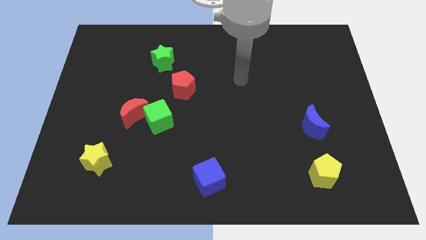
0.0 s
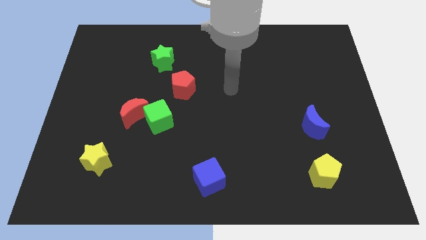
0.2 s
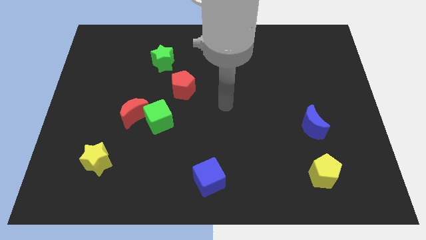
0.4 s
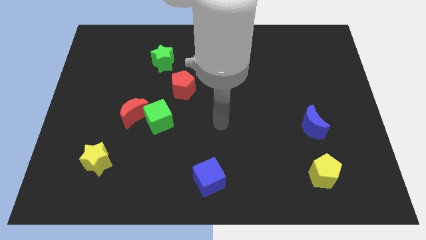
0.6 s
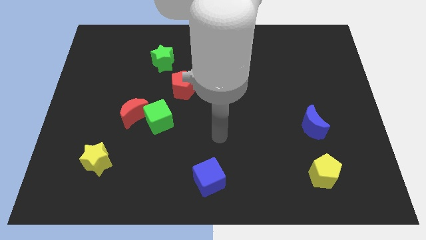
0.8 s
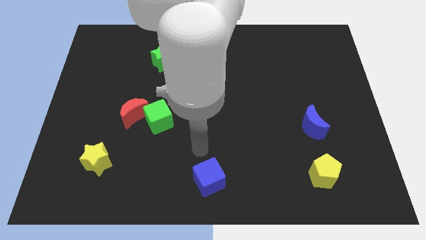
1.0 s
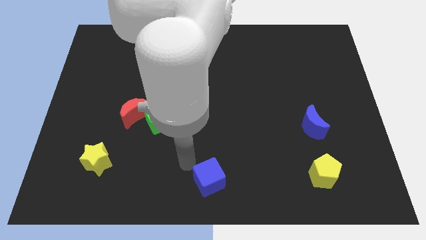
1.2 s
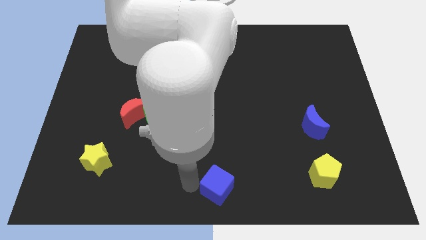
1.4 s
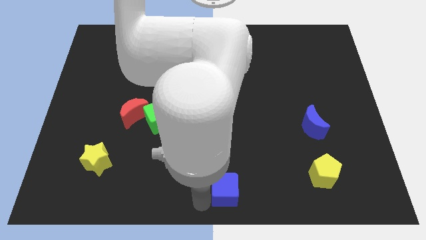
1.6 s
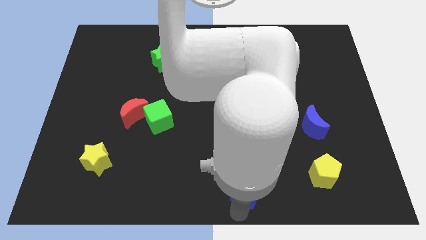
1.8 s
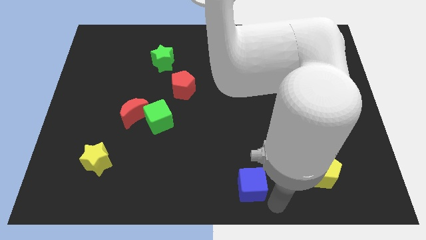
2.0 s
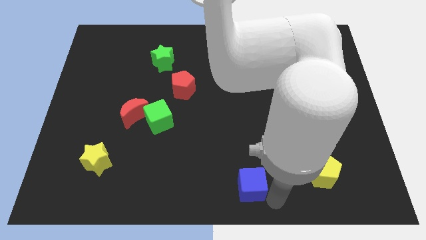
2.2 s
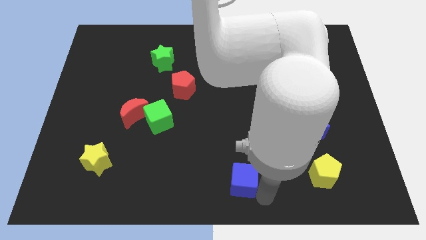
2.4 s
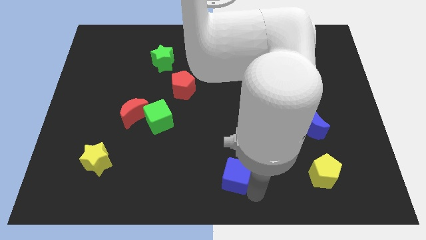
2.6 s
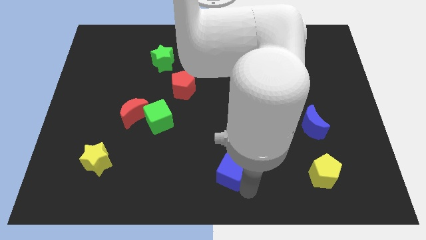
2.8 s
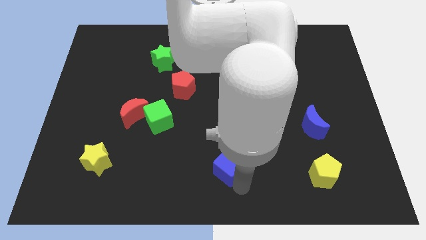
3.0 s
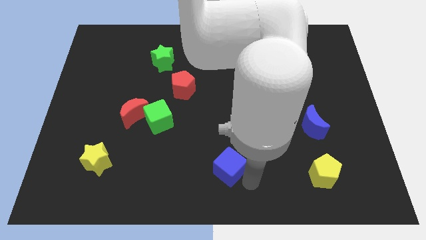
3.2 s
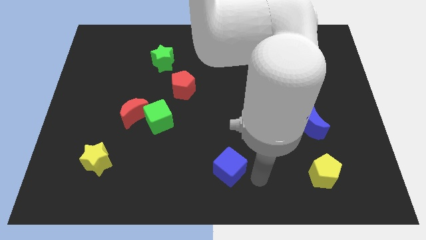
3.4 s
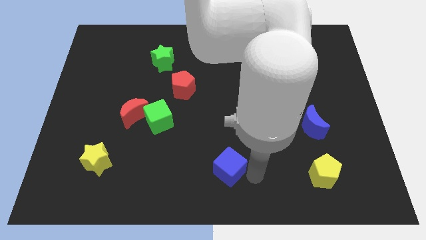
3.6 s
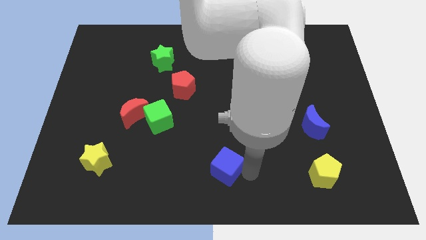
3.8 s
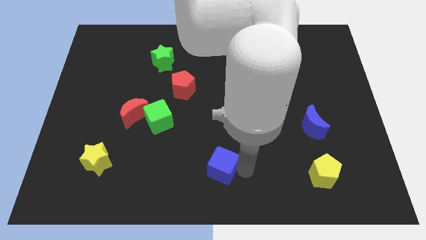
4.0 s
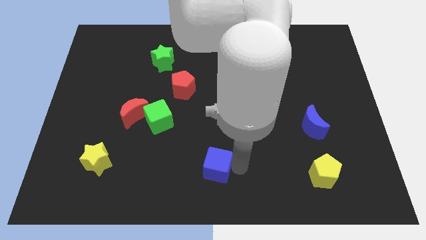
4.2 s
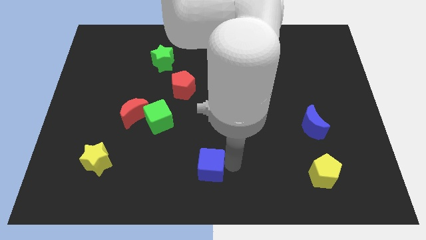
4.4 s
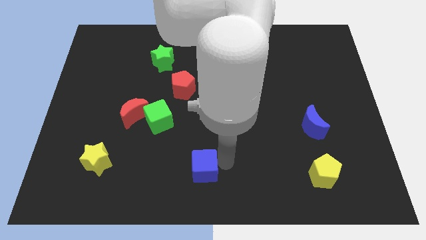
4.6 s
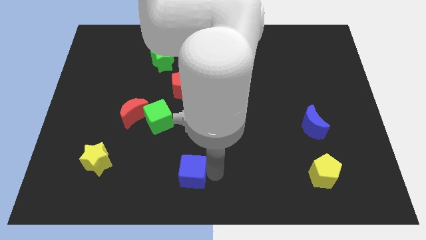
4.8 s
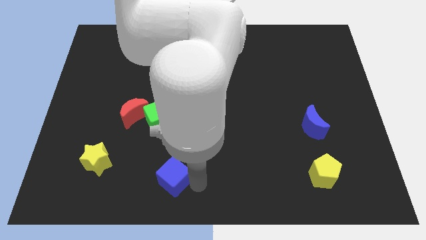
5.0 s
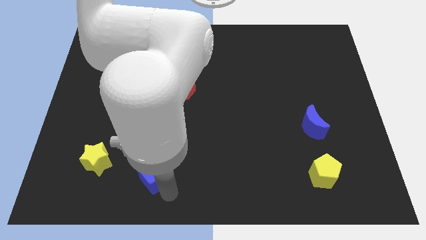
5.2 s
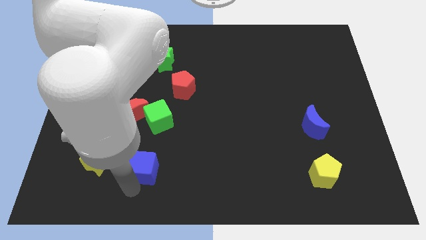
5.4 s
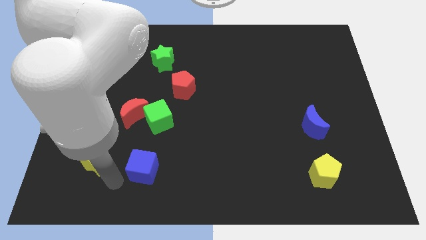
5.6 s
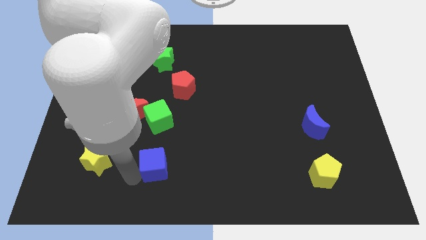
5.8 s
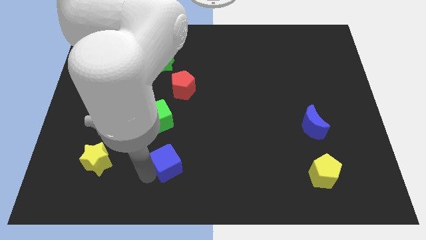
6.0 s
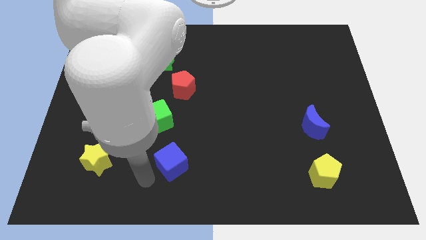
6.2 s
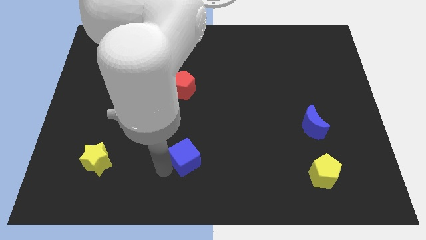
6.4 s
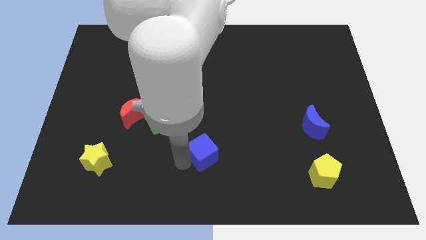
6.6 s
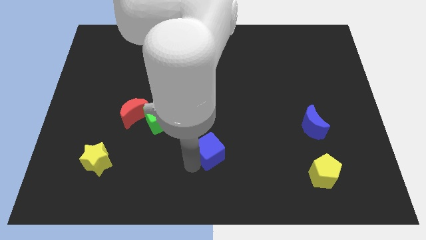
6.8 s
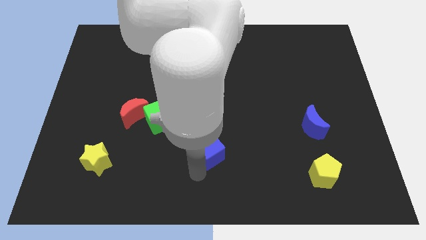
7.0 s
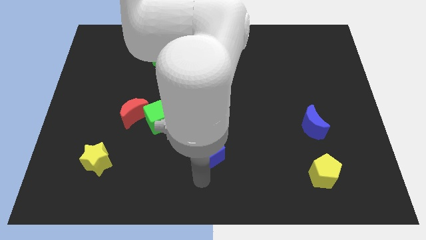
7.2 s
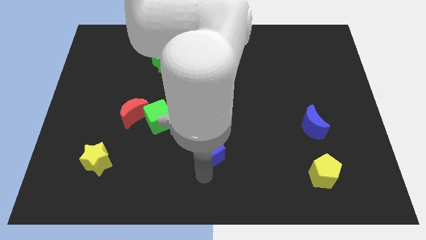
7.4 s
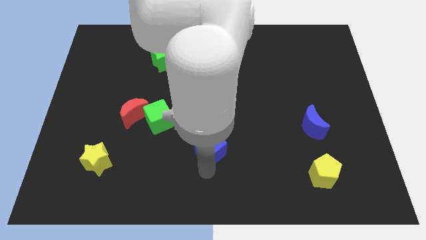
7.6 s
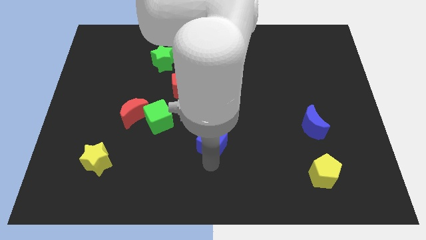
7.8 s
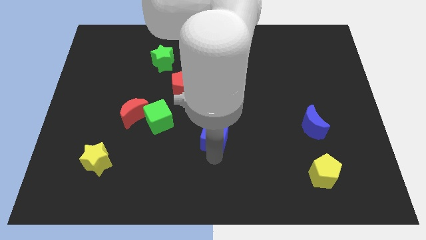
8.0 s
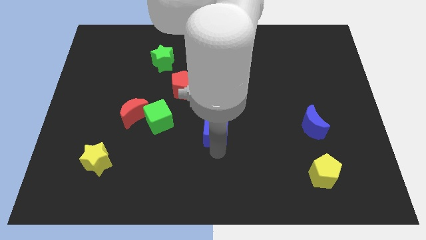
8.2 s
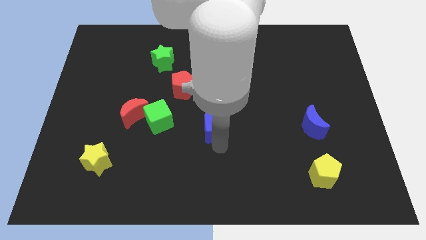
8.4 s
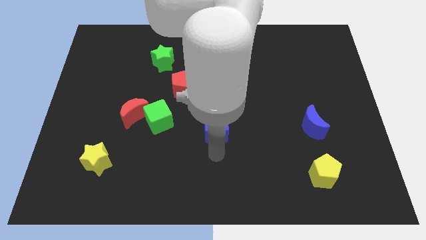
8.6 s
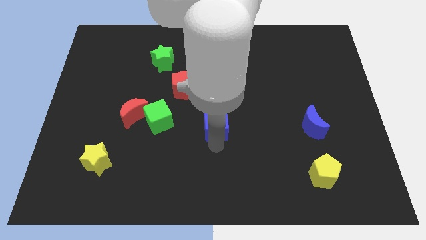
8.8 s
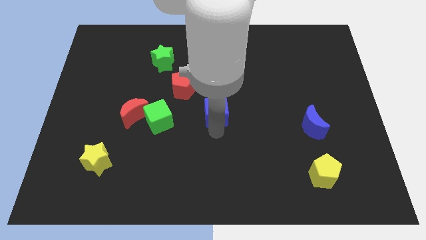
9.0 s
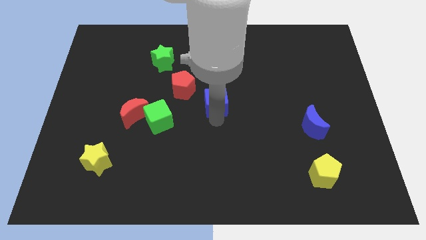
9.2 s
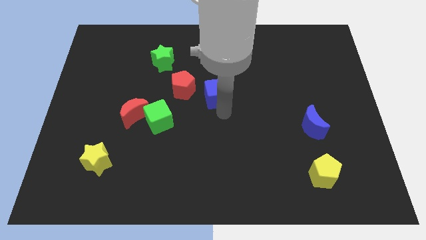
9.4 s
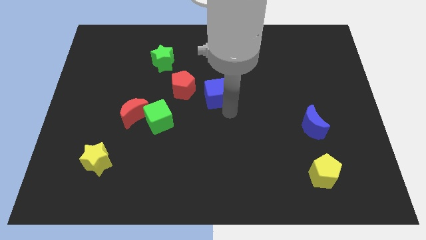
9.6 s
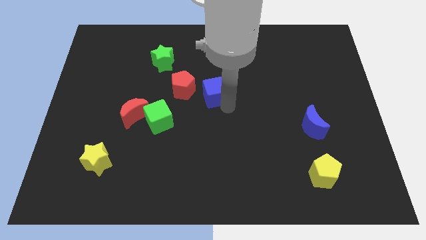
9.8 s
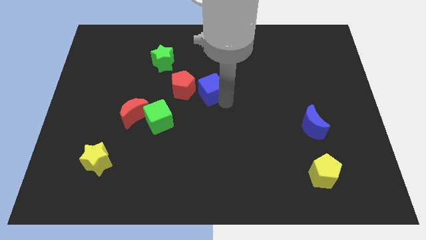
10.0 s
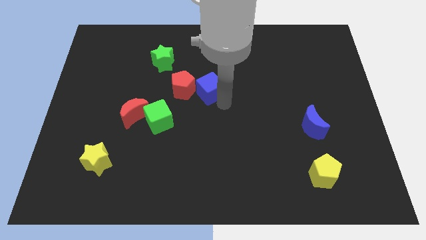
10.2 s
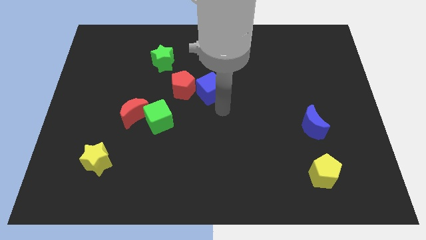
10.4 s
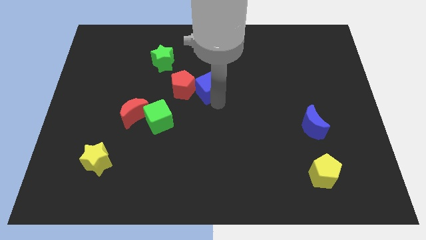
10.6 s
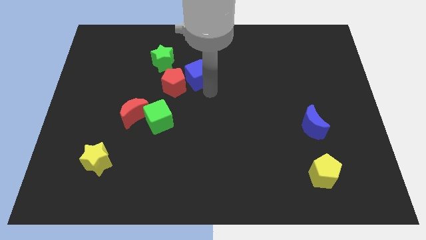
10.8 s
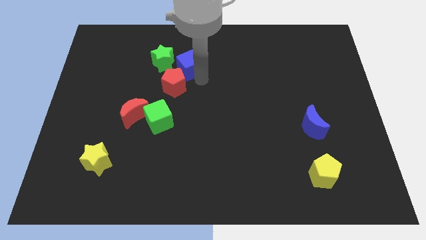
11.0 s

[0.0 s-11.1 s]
push the blue cube above the red pentagon

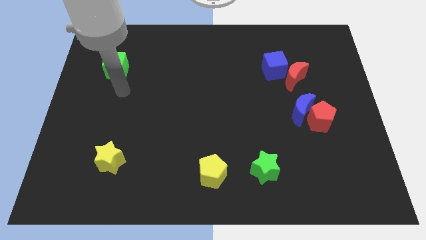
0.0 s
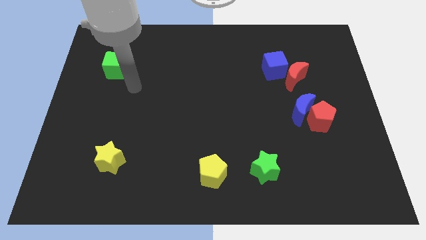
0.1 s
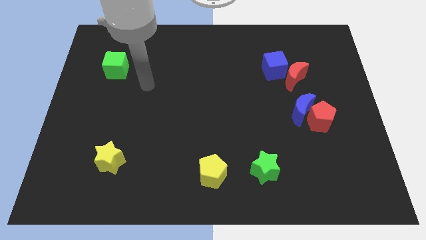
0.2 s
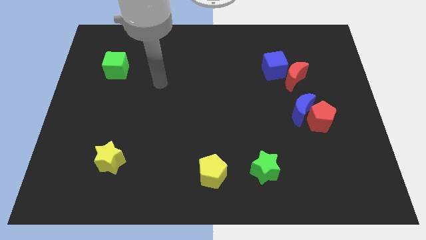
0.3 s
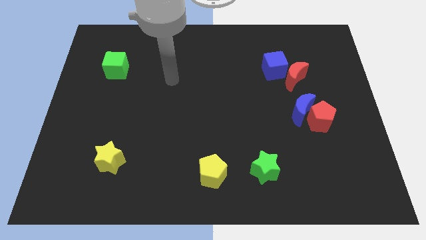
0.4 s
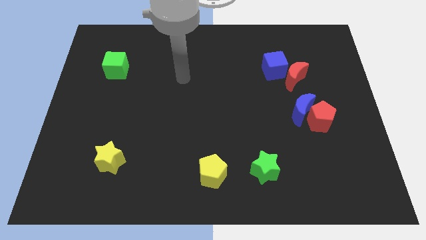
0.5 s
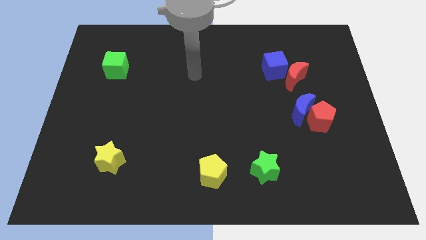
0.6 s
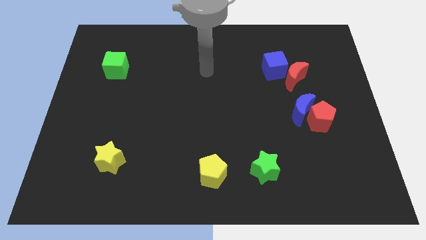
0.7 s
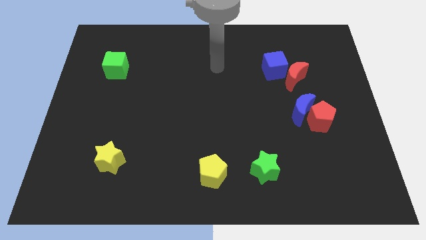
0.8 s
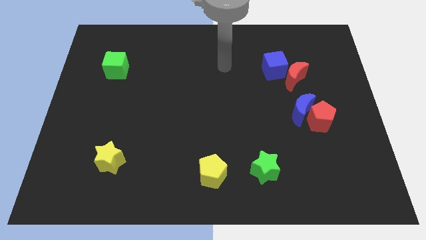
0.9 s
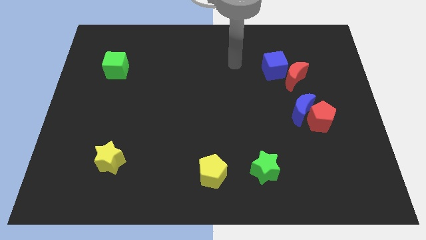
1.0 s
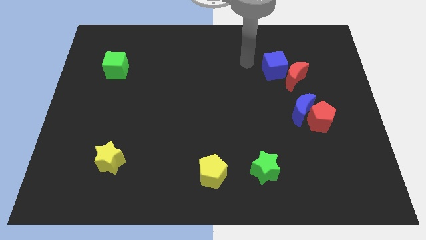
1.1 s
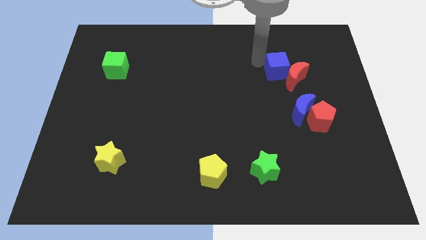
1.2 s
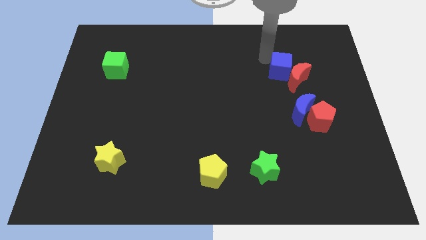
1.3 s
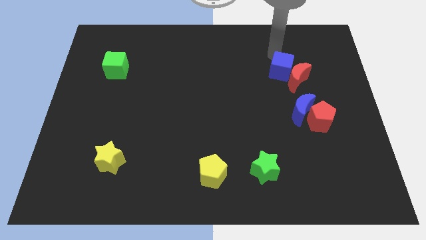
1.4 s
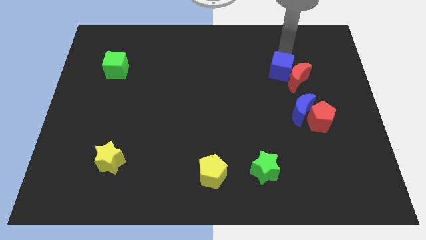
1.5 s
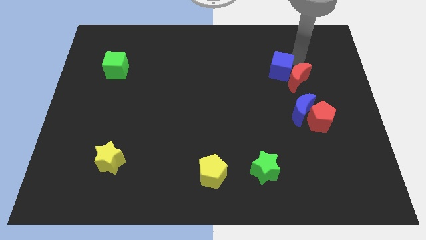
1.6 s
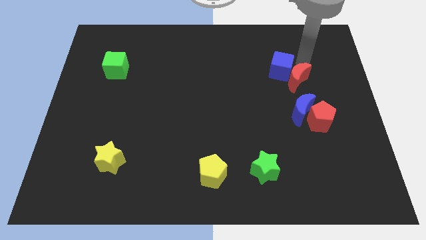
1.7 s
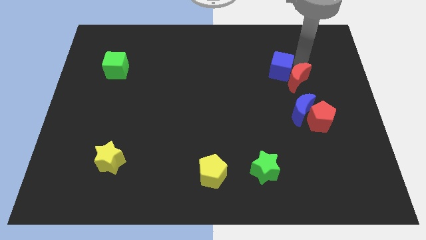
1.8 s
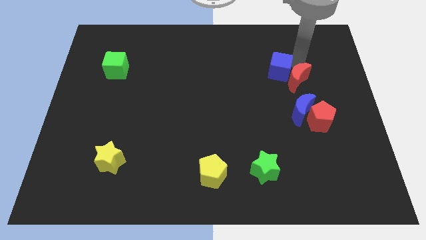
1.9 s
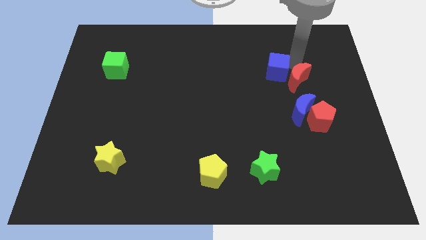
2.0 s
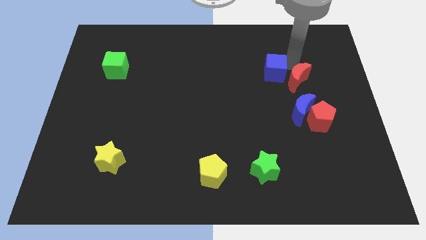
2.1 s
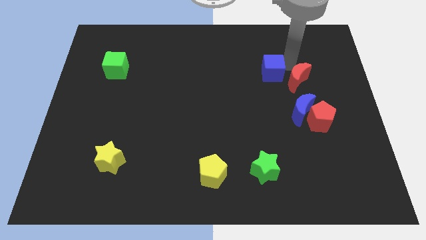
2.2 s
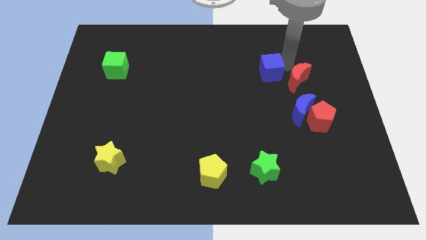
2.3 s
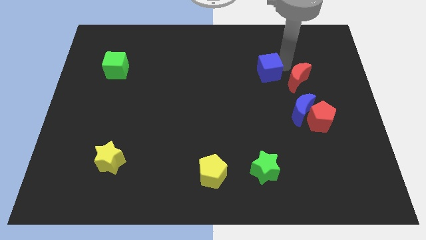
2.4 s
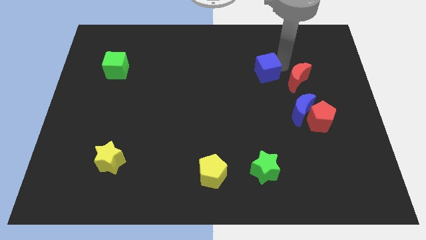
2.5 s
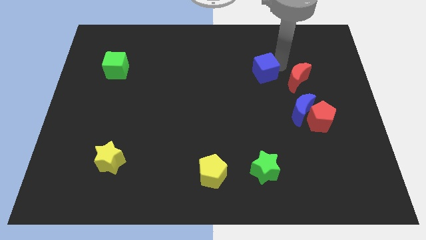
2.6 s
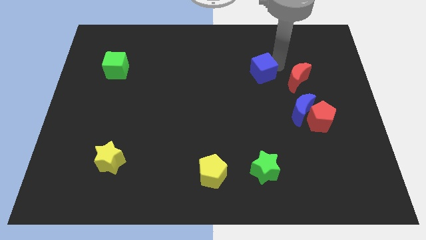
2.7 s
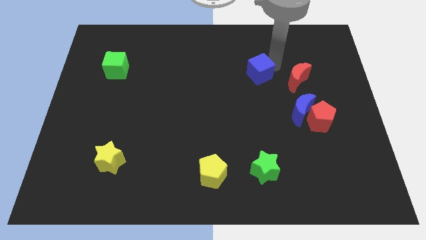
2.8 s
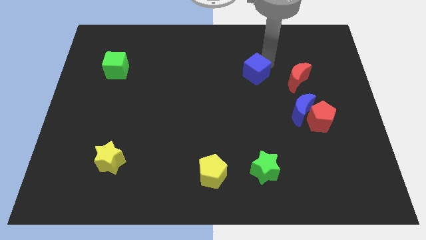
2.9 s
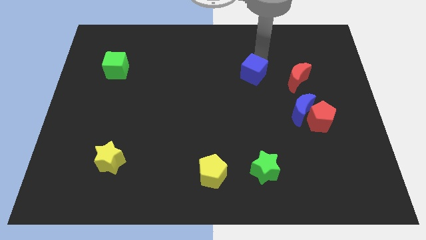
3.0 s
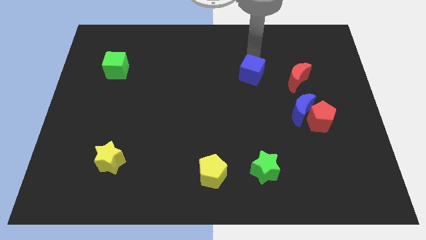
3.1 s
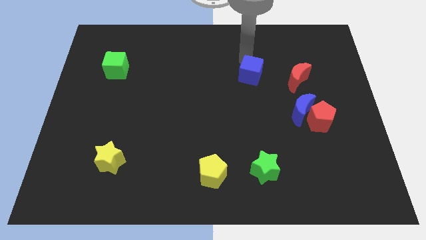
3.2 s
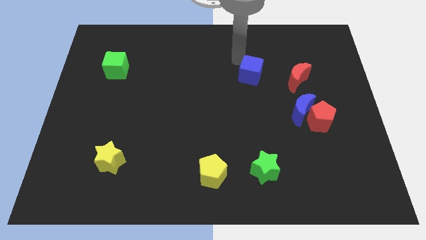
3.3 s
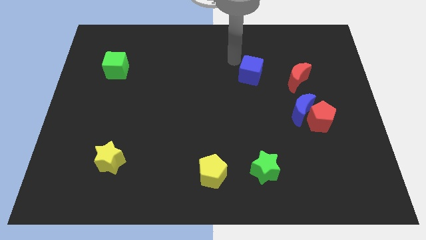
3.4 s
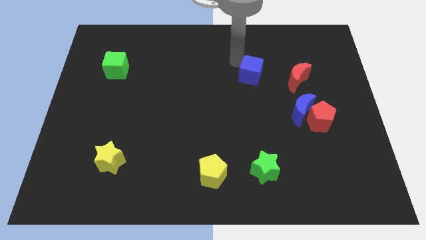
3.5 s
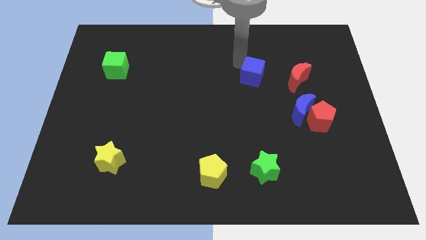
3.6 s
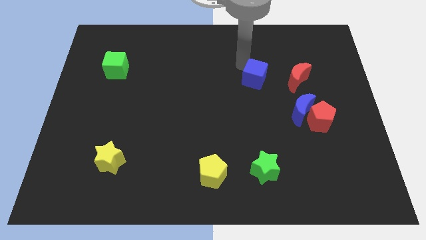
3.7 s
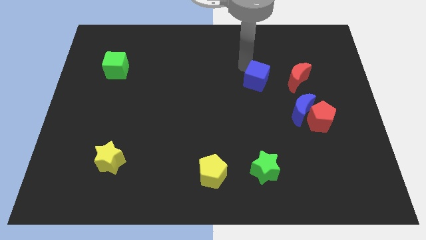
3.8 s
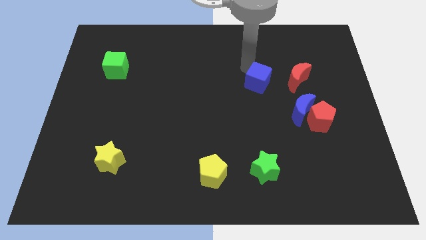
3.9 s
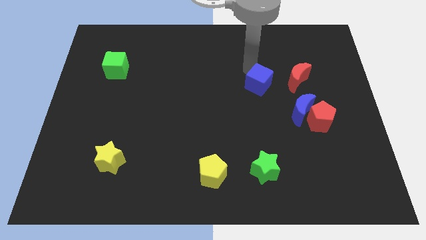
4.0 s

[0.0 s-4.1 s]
push the blue cube to the top left side of the blue moon
